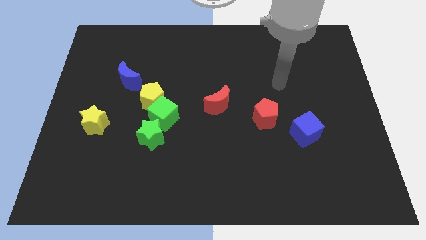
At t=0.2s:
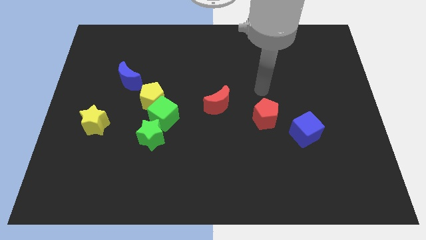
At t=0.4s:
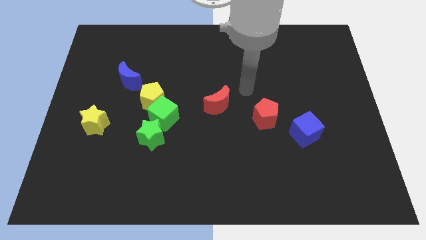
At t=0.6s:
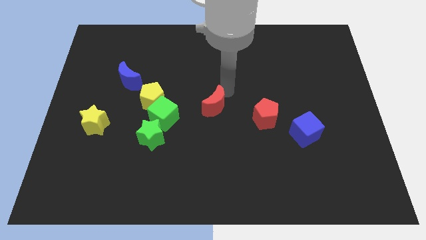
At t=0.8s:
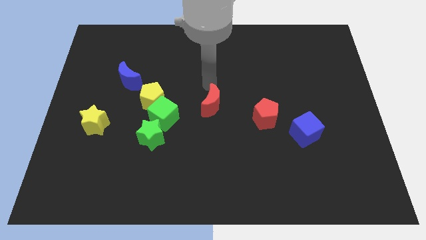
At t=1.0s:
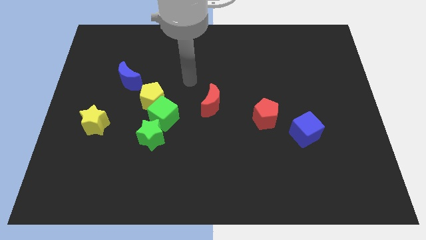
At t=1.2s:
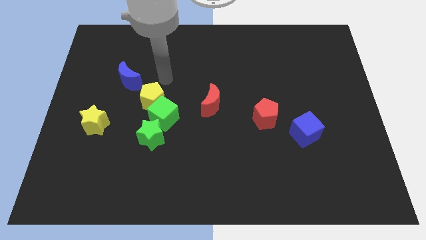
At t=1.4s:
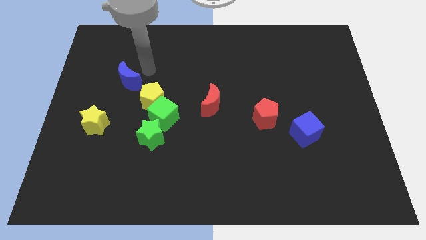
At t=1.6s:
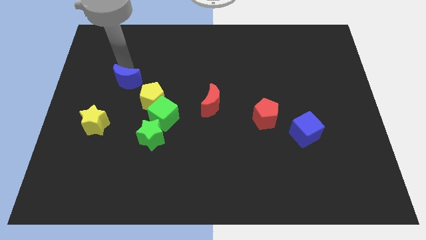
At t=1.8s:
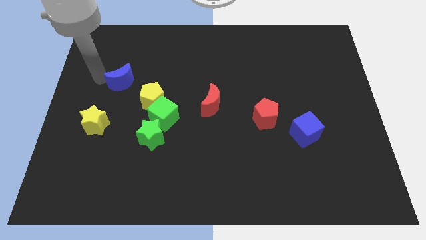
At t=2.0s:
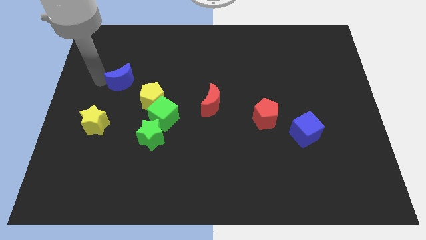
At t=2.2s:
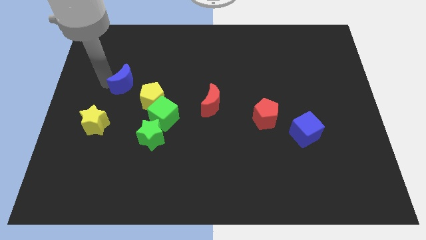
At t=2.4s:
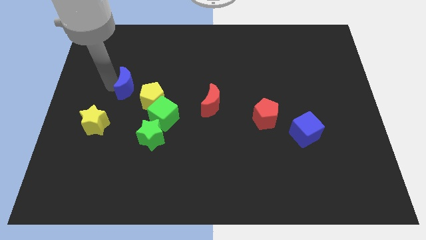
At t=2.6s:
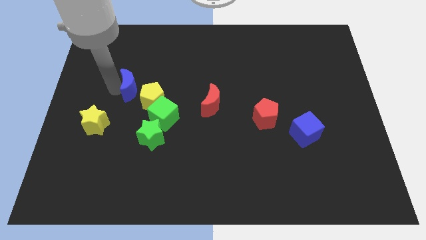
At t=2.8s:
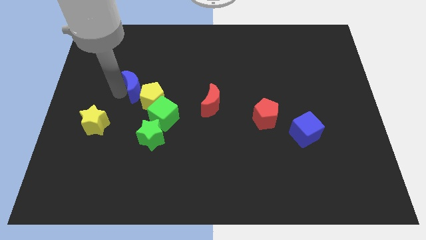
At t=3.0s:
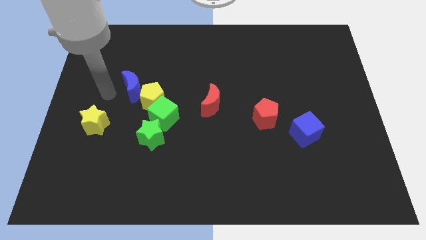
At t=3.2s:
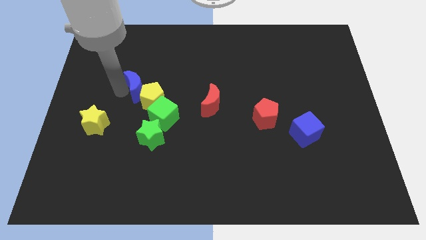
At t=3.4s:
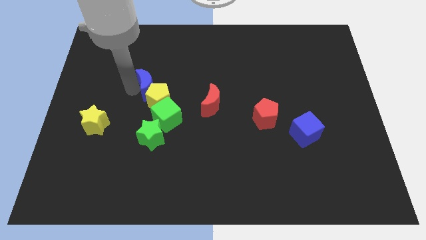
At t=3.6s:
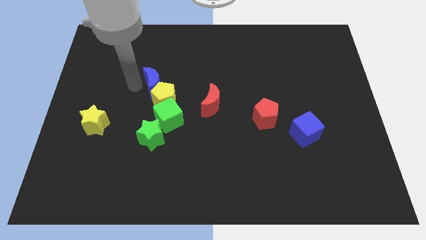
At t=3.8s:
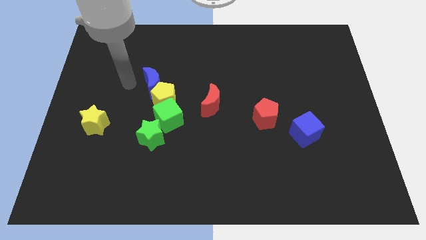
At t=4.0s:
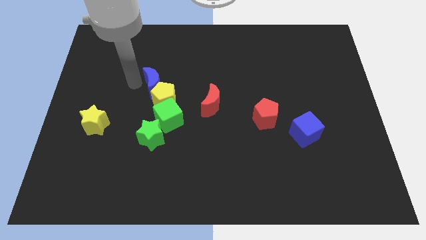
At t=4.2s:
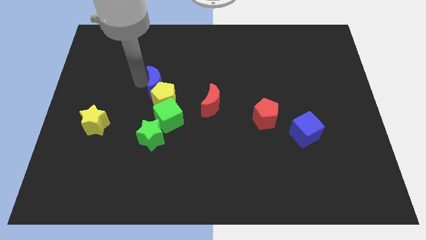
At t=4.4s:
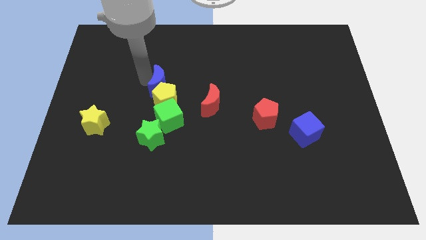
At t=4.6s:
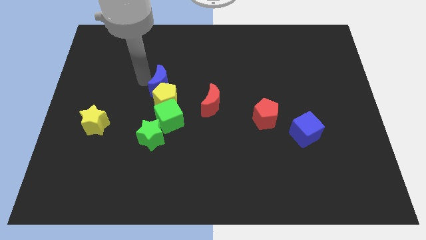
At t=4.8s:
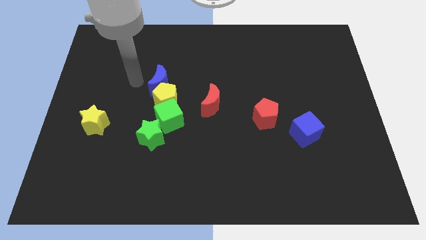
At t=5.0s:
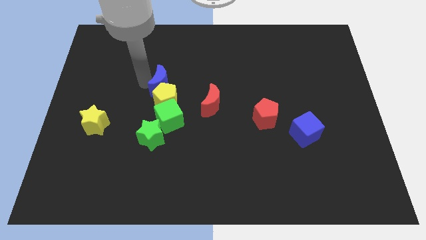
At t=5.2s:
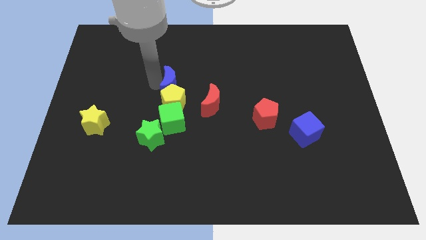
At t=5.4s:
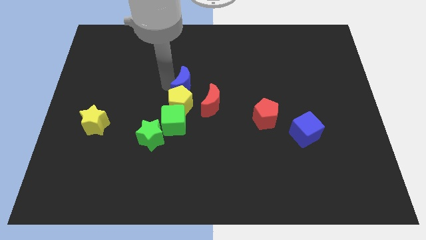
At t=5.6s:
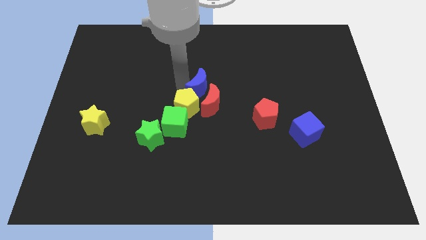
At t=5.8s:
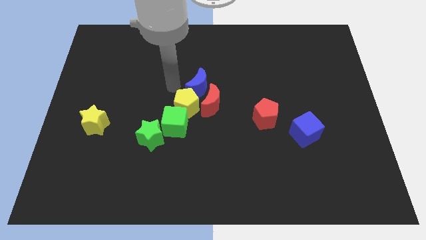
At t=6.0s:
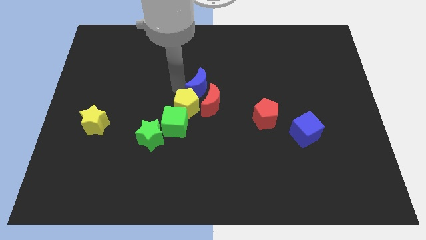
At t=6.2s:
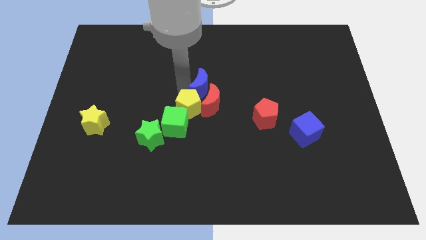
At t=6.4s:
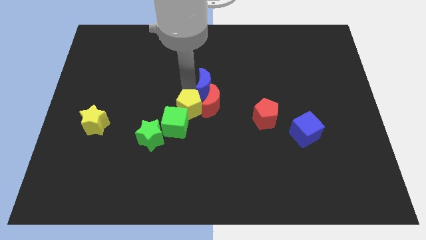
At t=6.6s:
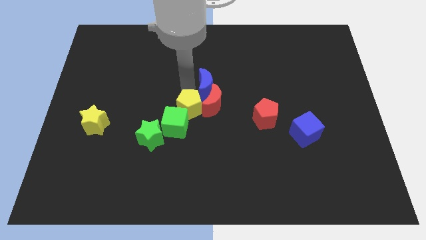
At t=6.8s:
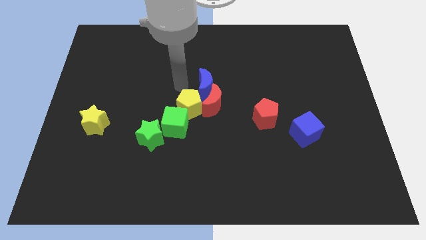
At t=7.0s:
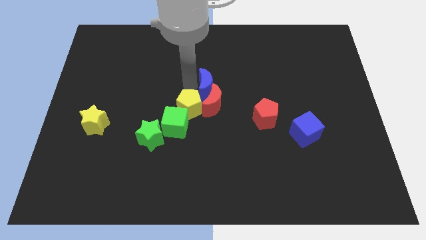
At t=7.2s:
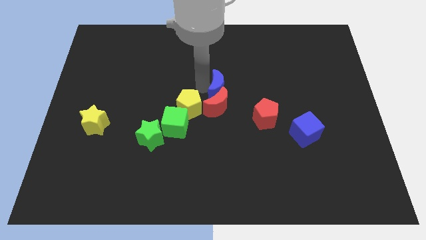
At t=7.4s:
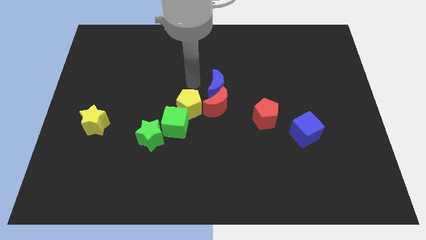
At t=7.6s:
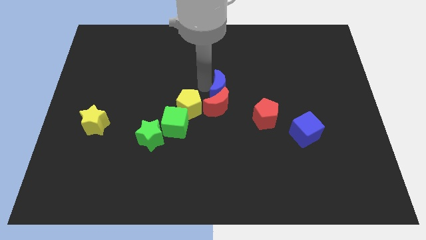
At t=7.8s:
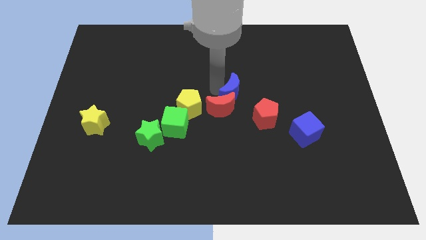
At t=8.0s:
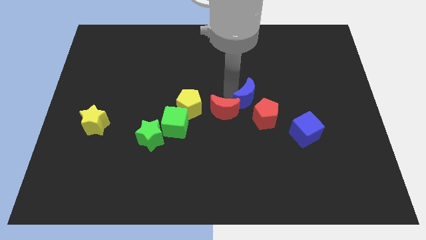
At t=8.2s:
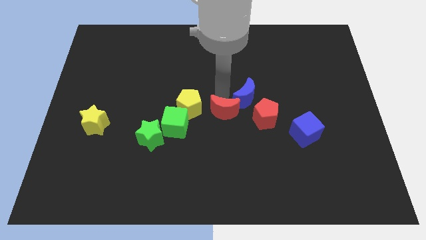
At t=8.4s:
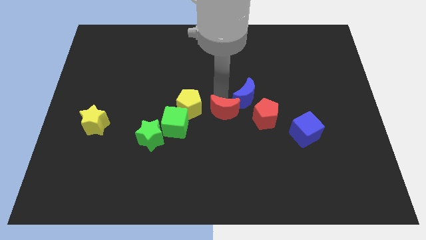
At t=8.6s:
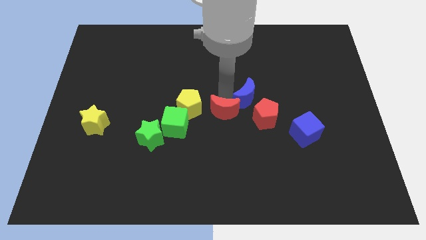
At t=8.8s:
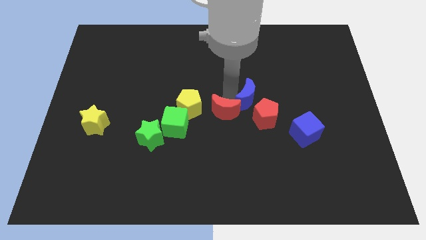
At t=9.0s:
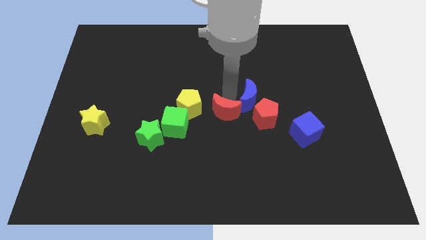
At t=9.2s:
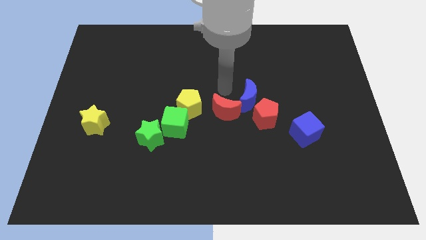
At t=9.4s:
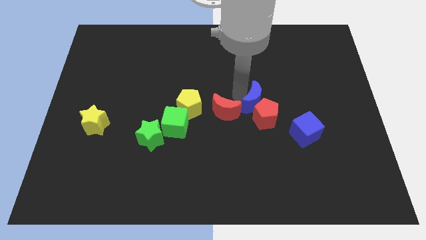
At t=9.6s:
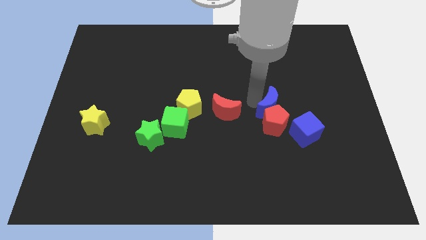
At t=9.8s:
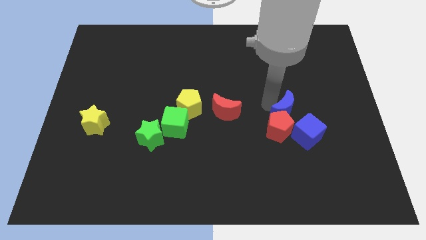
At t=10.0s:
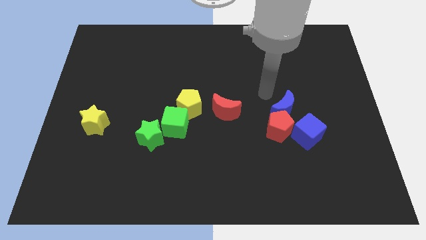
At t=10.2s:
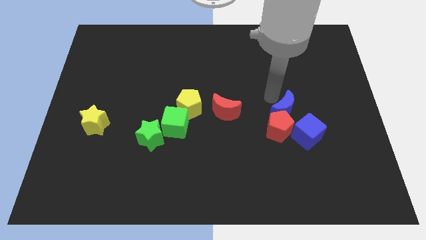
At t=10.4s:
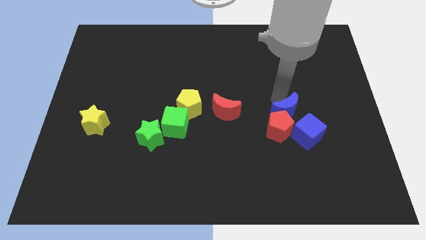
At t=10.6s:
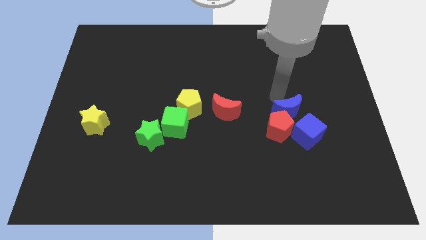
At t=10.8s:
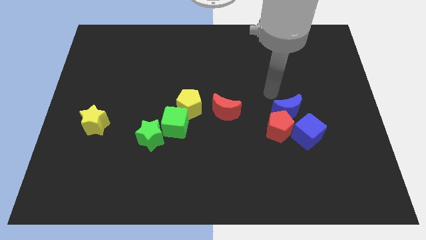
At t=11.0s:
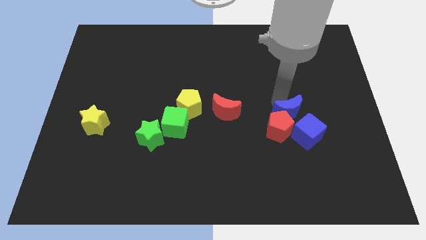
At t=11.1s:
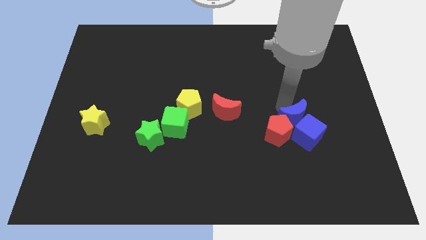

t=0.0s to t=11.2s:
push the blue moon to the blue cube

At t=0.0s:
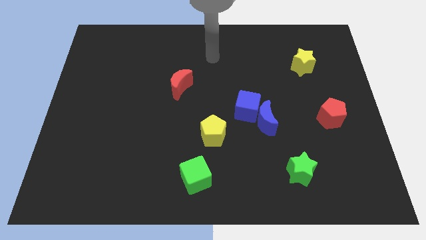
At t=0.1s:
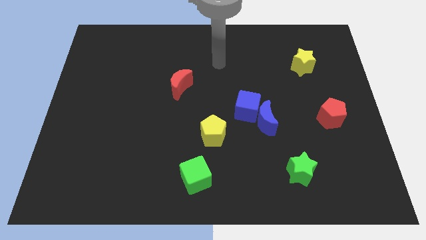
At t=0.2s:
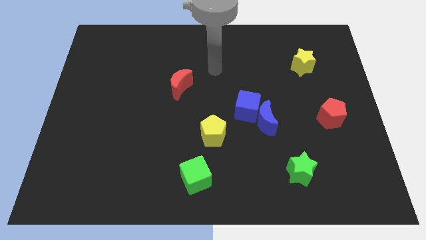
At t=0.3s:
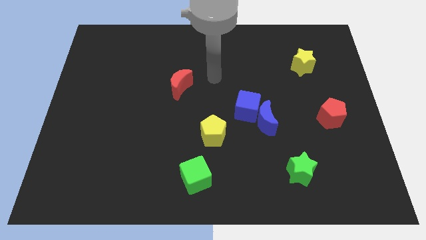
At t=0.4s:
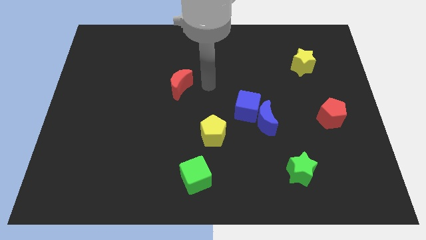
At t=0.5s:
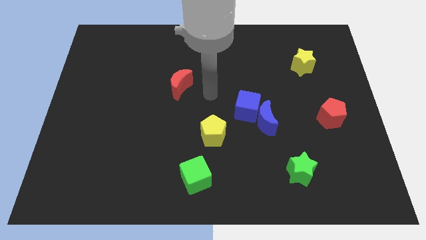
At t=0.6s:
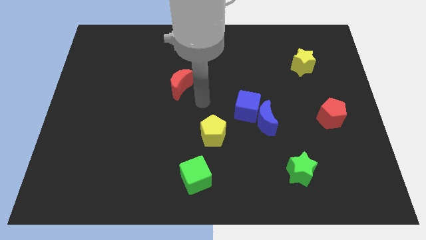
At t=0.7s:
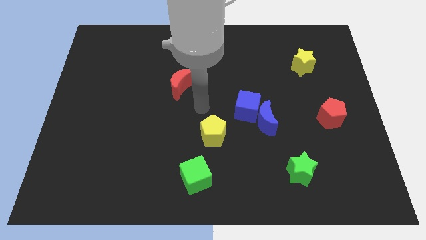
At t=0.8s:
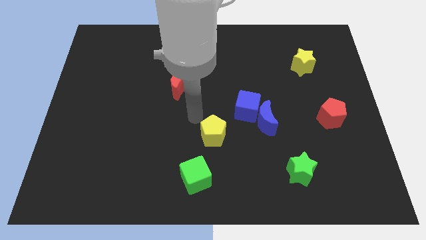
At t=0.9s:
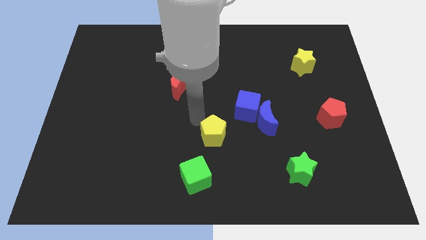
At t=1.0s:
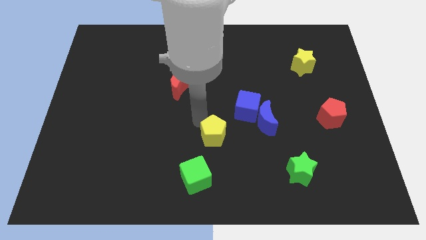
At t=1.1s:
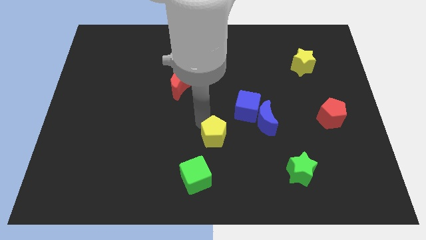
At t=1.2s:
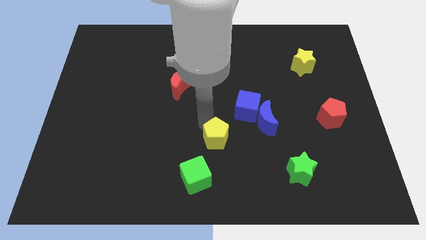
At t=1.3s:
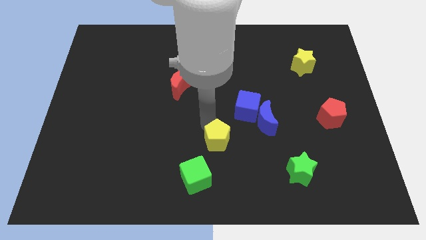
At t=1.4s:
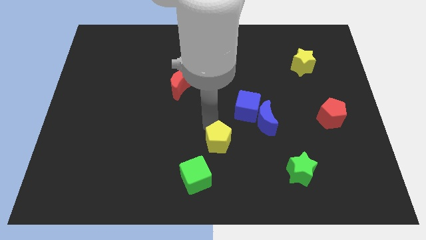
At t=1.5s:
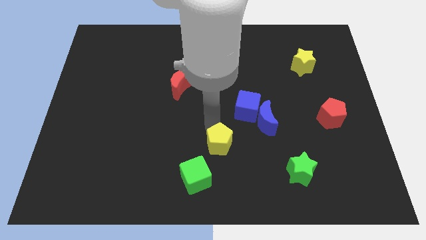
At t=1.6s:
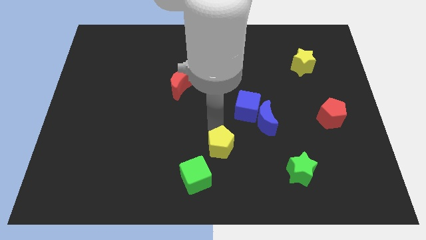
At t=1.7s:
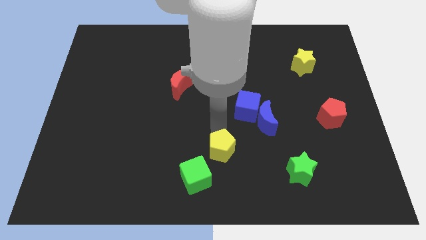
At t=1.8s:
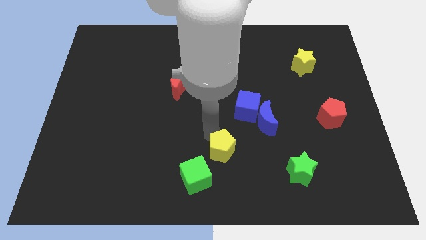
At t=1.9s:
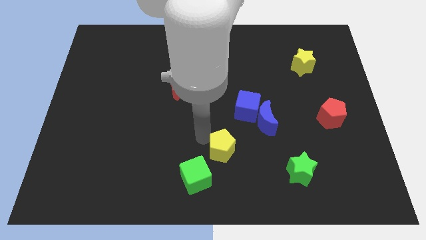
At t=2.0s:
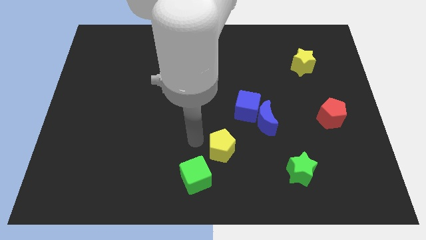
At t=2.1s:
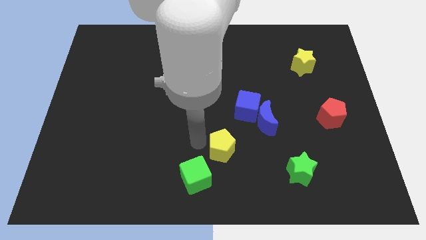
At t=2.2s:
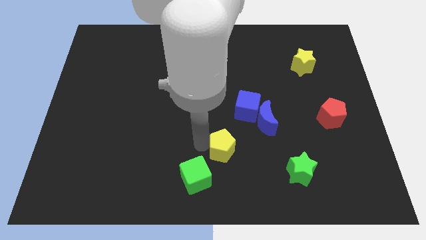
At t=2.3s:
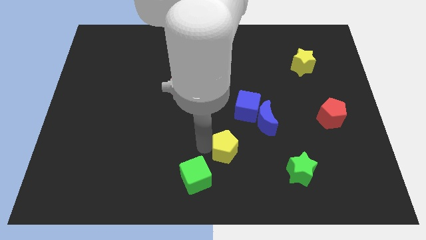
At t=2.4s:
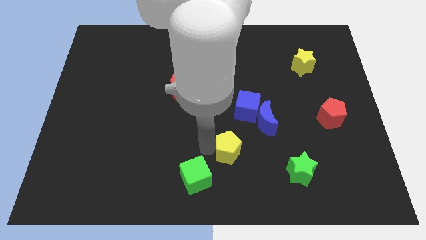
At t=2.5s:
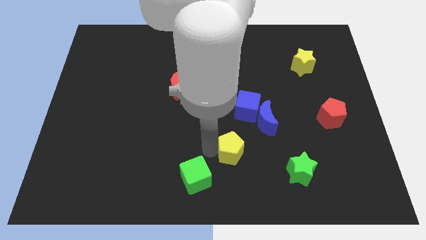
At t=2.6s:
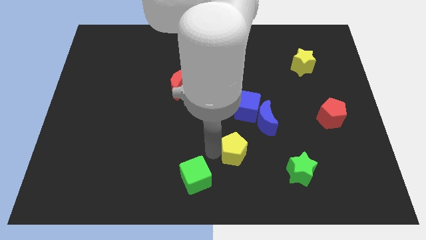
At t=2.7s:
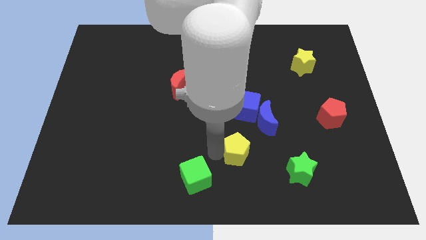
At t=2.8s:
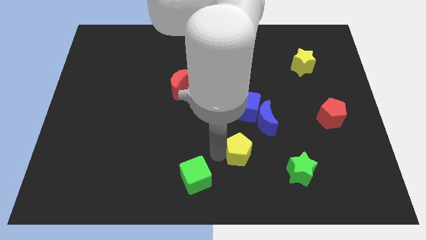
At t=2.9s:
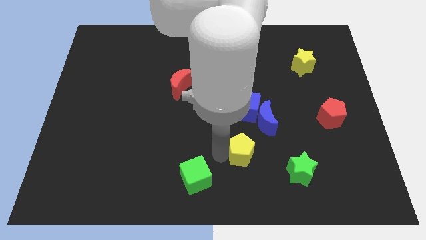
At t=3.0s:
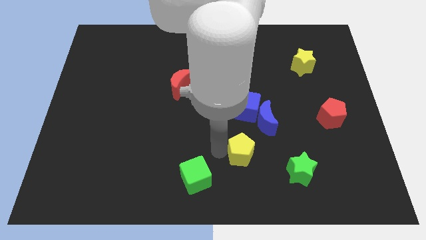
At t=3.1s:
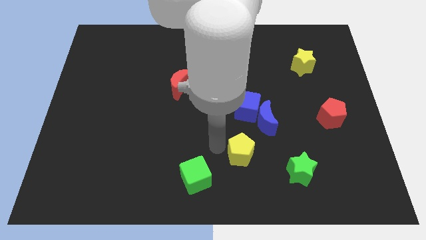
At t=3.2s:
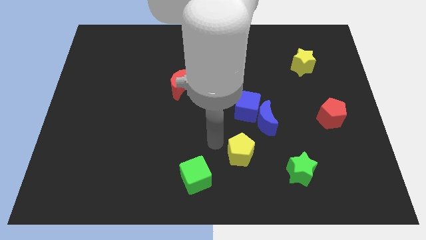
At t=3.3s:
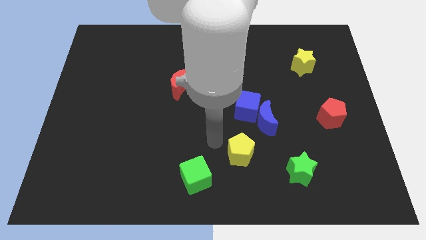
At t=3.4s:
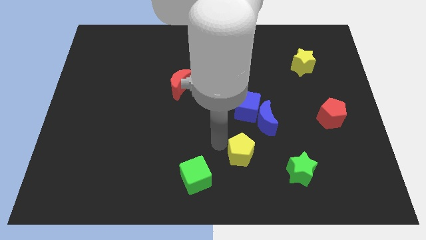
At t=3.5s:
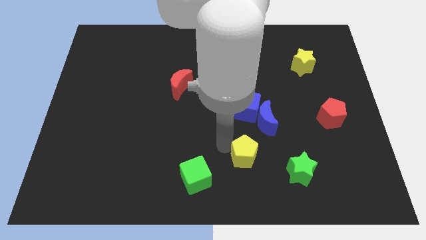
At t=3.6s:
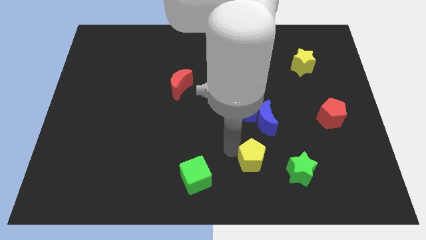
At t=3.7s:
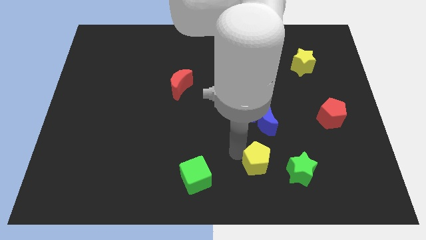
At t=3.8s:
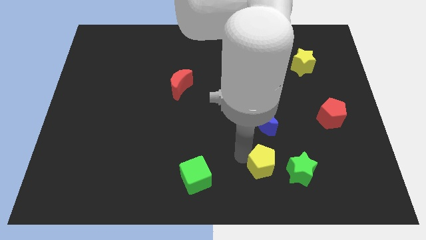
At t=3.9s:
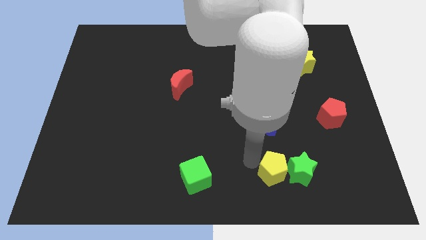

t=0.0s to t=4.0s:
slide the yellow pentagon next to the green star
